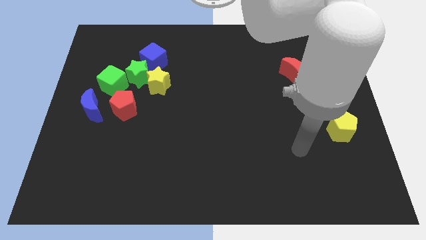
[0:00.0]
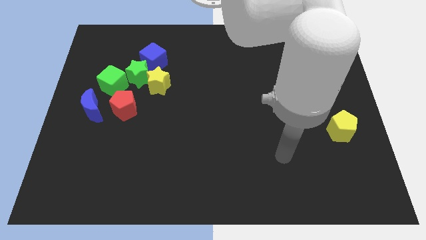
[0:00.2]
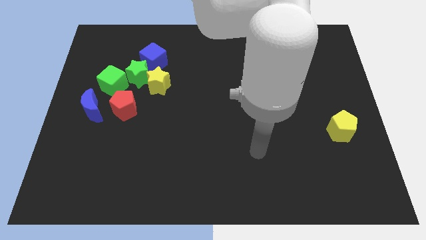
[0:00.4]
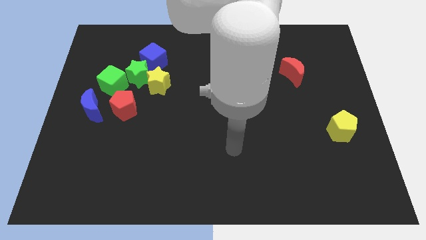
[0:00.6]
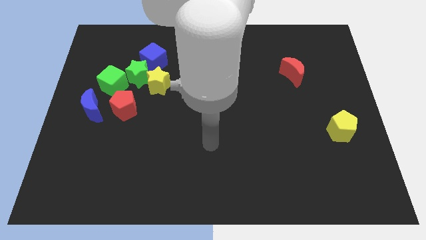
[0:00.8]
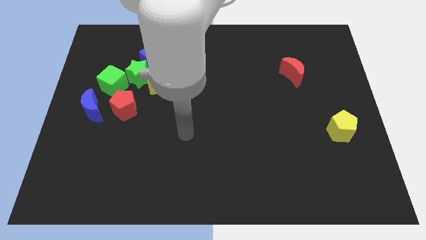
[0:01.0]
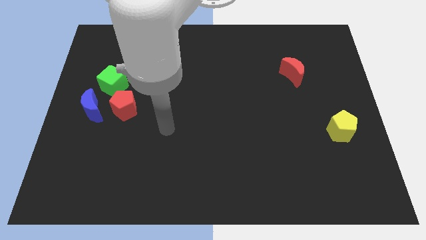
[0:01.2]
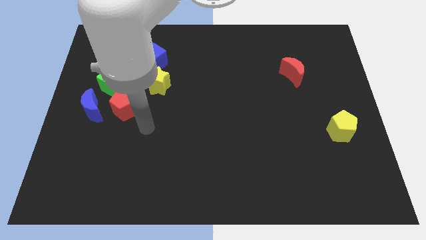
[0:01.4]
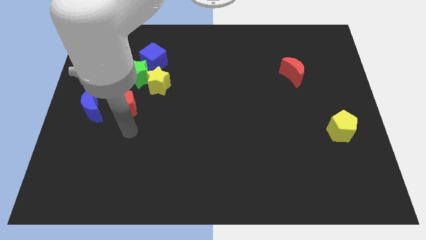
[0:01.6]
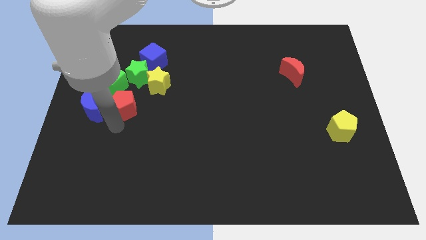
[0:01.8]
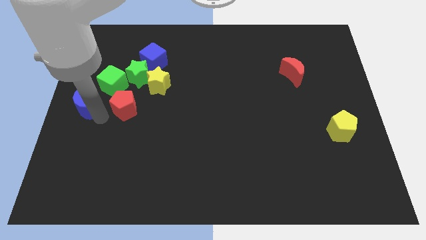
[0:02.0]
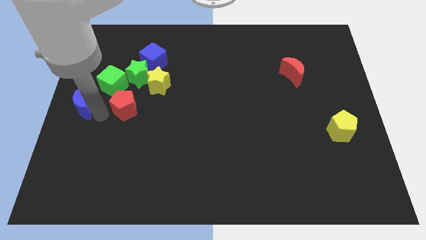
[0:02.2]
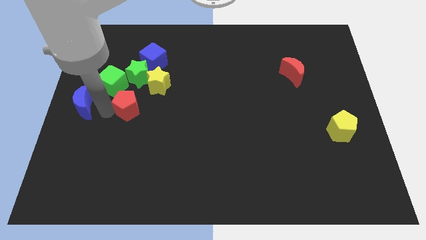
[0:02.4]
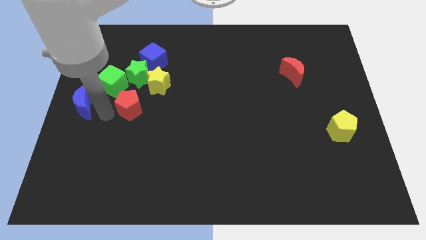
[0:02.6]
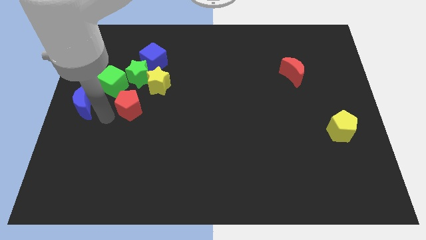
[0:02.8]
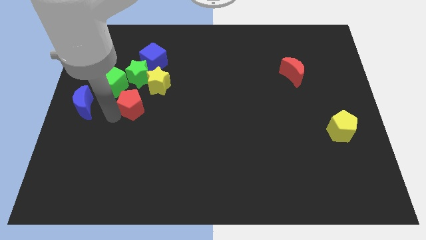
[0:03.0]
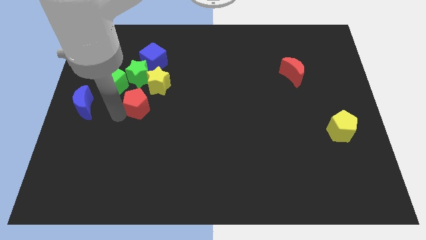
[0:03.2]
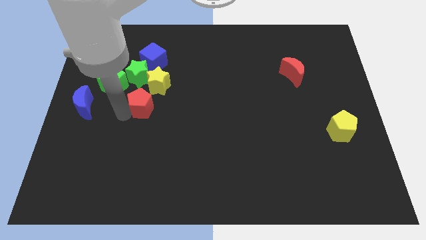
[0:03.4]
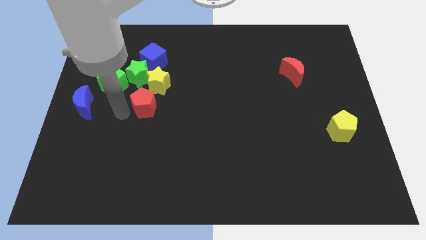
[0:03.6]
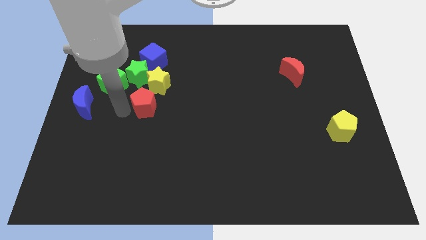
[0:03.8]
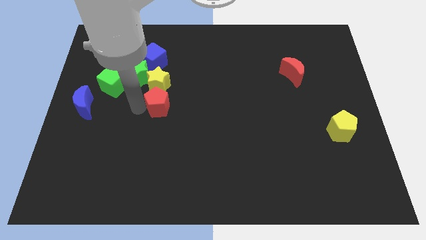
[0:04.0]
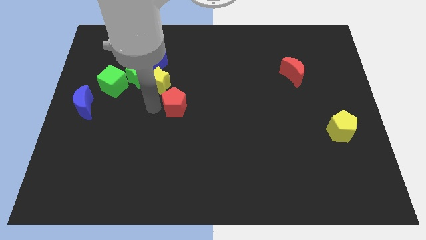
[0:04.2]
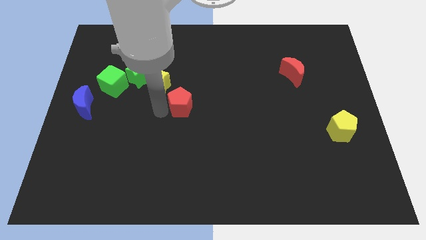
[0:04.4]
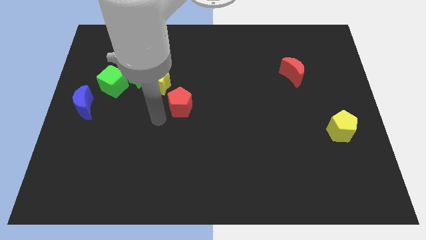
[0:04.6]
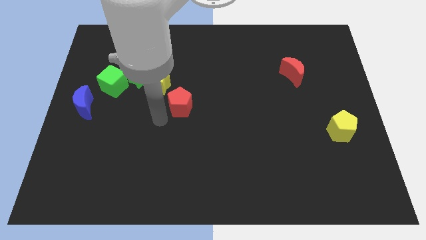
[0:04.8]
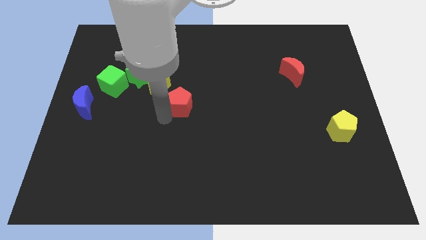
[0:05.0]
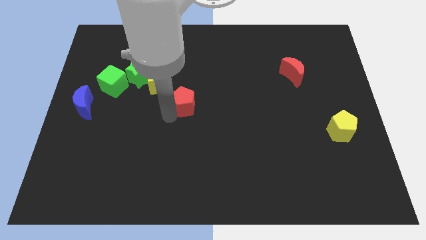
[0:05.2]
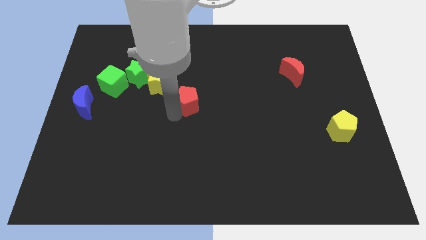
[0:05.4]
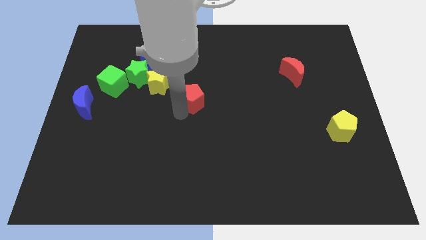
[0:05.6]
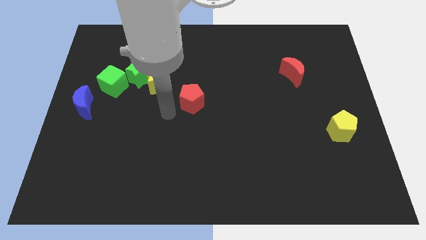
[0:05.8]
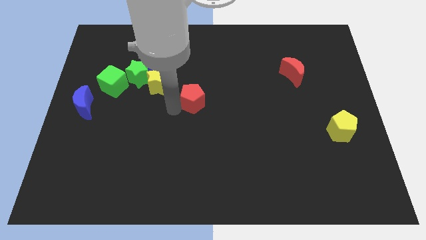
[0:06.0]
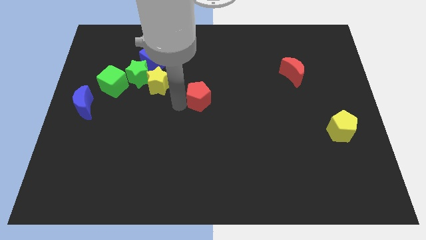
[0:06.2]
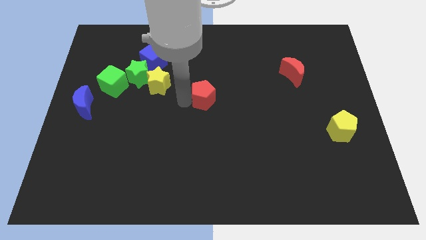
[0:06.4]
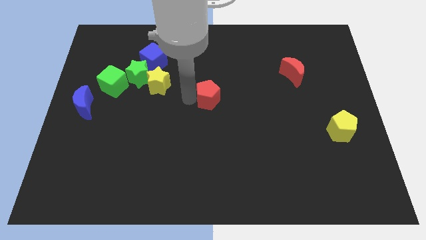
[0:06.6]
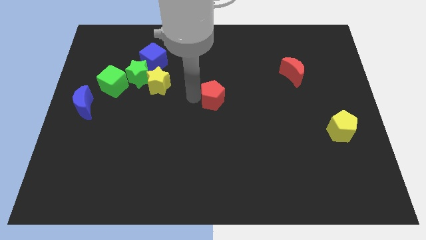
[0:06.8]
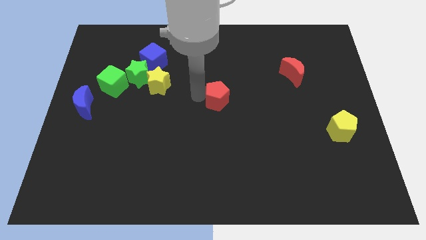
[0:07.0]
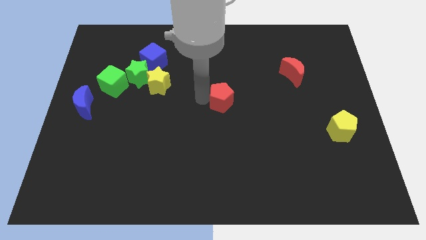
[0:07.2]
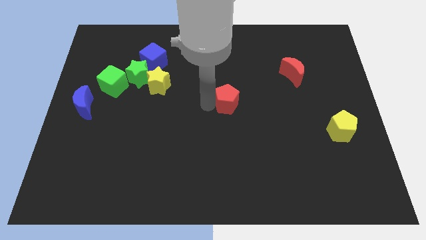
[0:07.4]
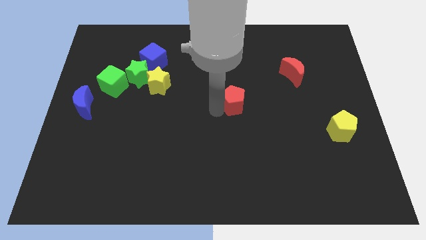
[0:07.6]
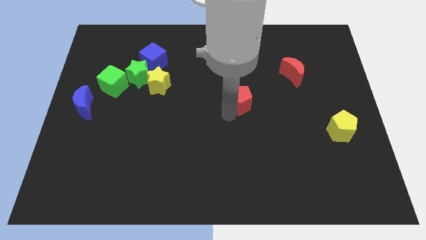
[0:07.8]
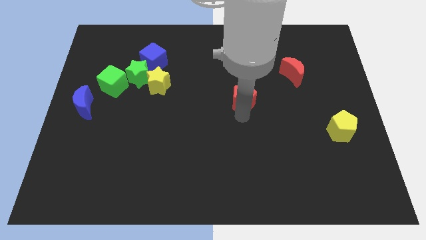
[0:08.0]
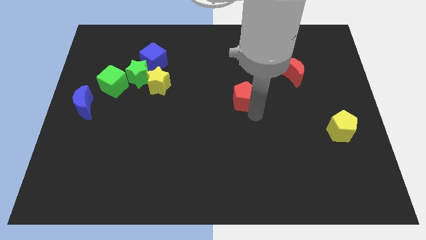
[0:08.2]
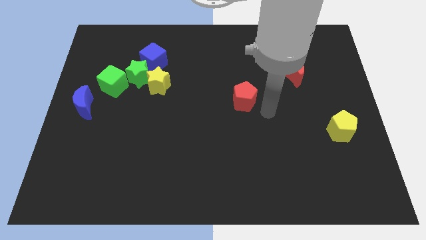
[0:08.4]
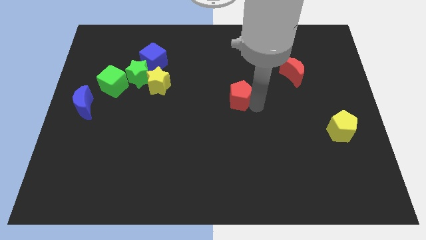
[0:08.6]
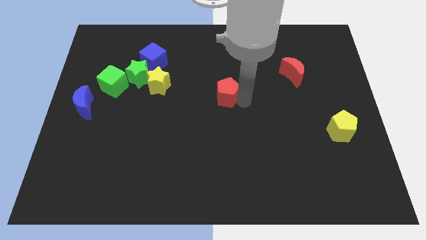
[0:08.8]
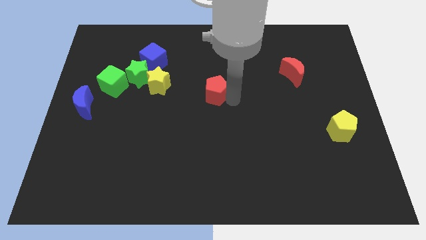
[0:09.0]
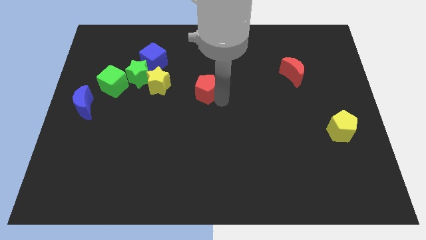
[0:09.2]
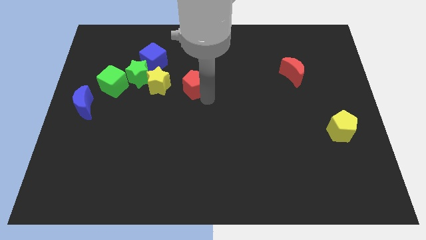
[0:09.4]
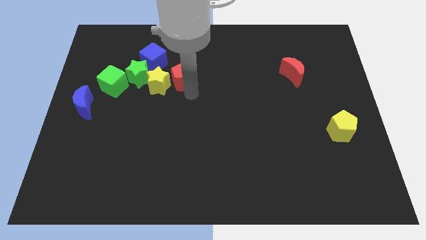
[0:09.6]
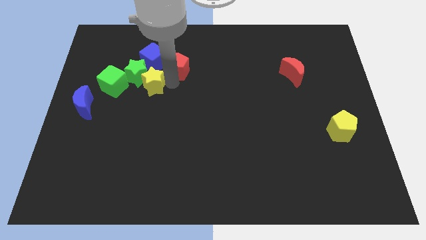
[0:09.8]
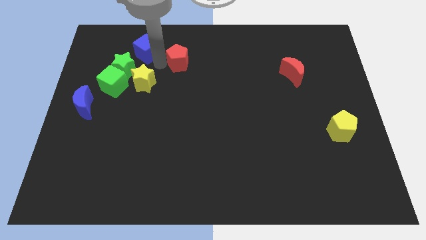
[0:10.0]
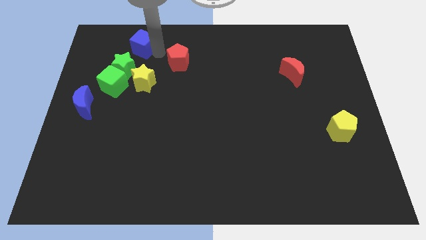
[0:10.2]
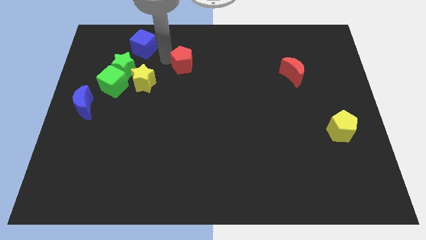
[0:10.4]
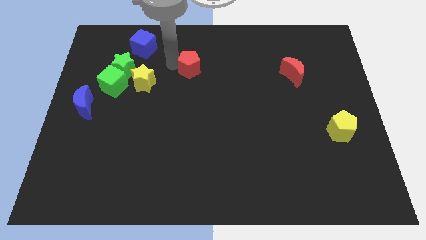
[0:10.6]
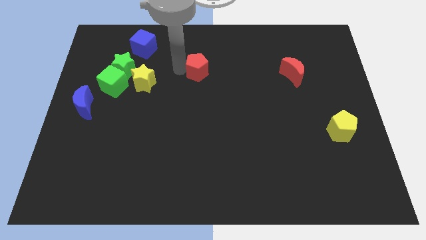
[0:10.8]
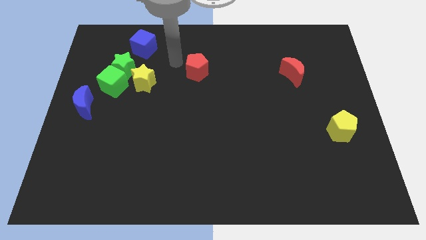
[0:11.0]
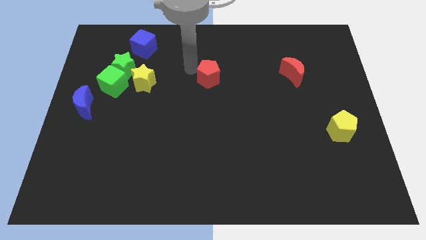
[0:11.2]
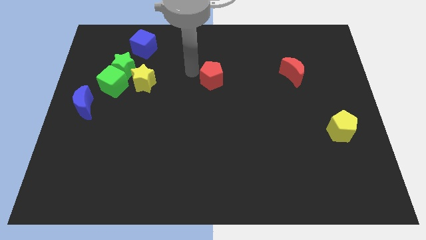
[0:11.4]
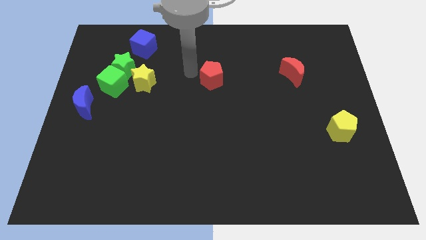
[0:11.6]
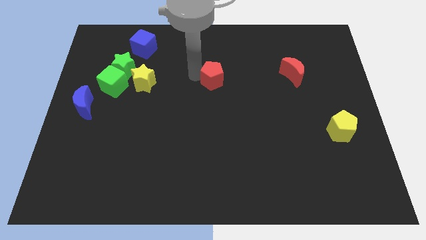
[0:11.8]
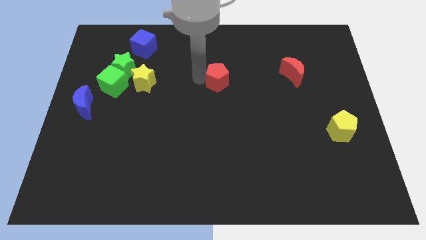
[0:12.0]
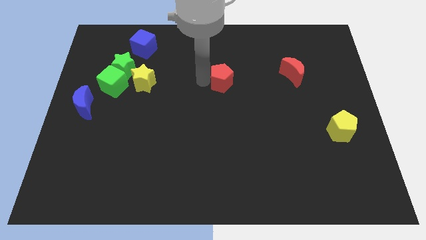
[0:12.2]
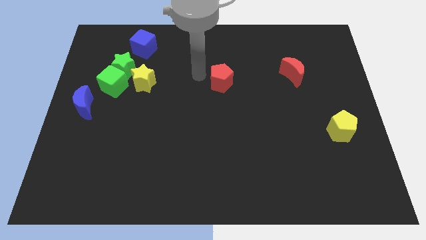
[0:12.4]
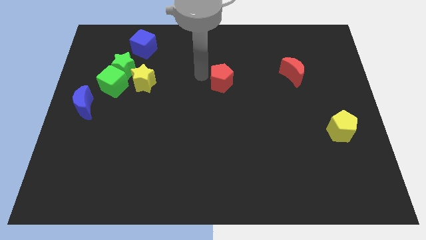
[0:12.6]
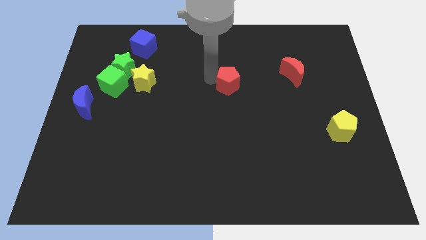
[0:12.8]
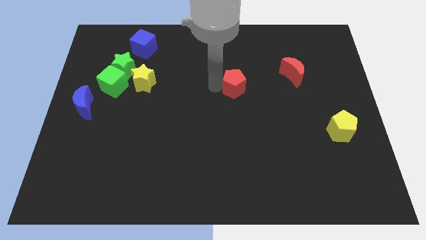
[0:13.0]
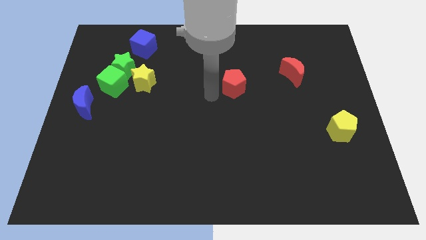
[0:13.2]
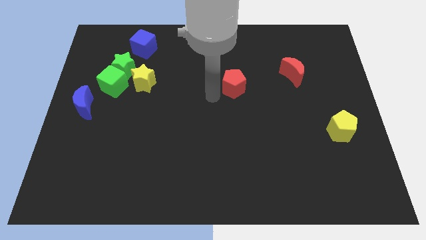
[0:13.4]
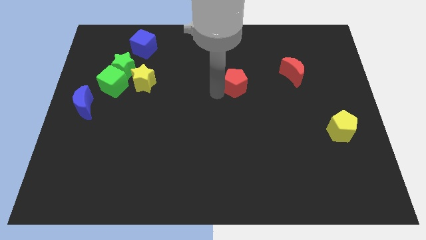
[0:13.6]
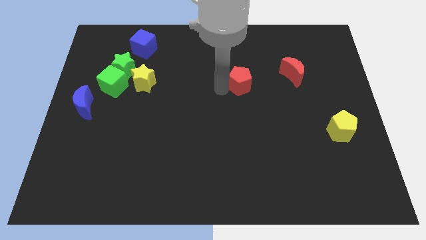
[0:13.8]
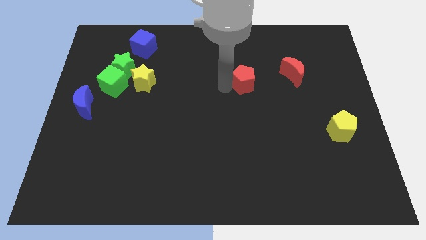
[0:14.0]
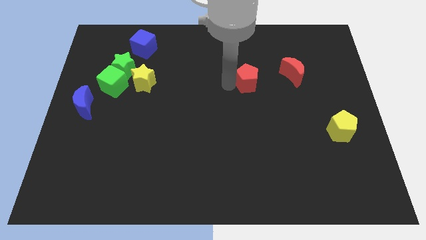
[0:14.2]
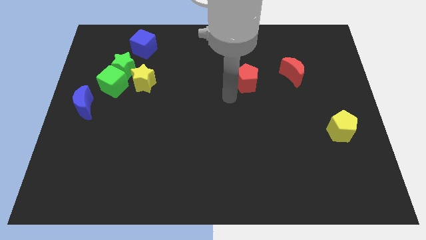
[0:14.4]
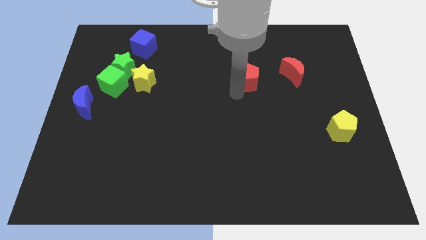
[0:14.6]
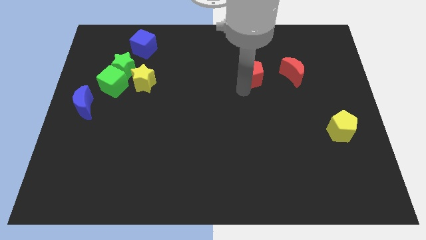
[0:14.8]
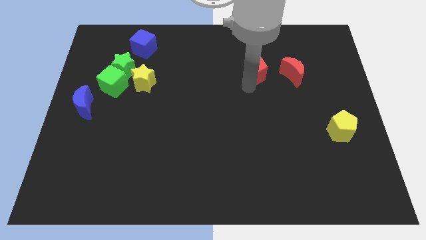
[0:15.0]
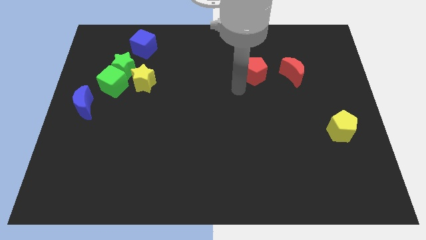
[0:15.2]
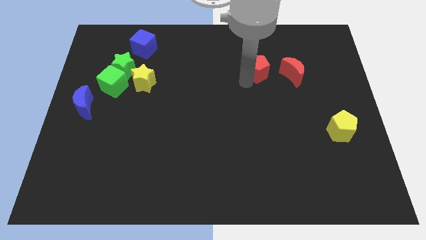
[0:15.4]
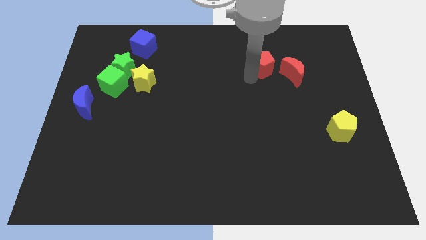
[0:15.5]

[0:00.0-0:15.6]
put the red pentagon to the top left side of the red moon
